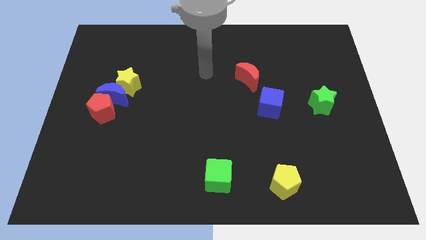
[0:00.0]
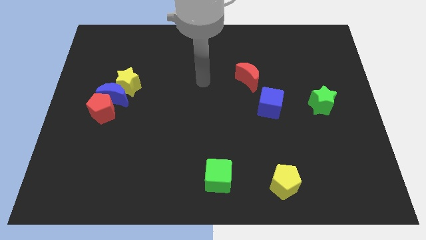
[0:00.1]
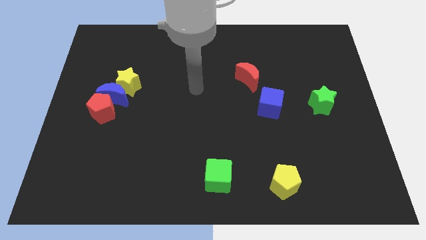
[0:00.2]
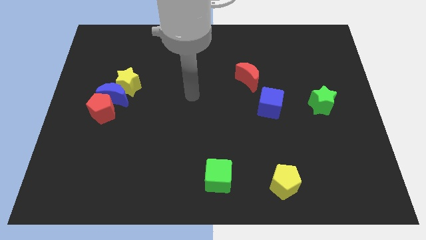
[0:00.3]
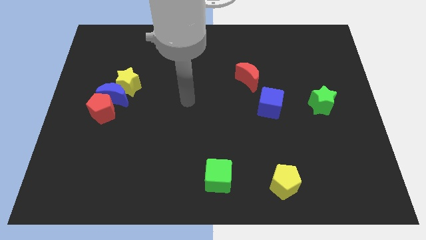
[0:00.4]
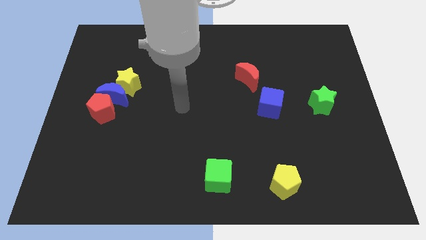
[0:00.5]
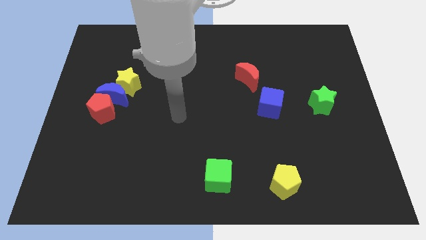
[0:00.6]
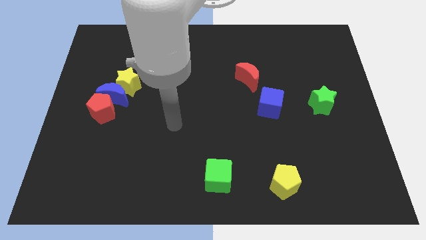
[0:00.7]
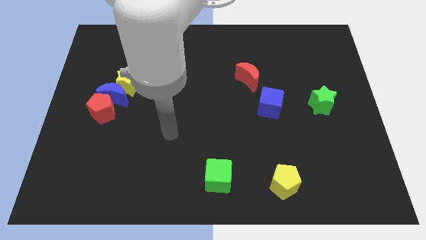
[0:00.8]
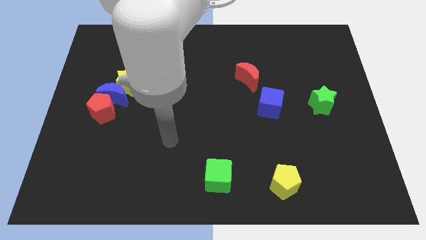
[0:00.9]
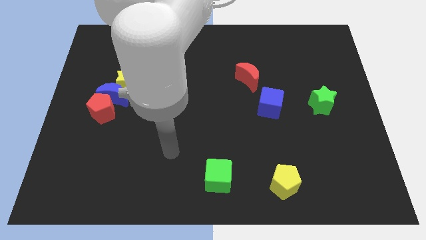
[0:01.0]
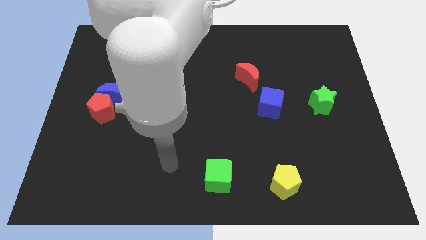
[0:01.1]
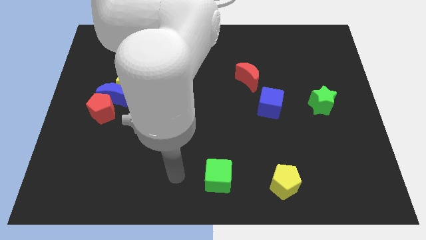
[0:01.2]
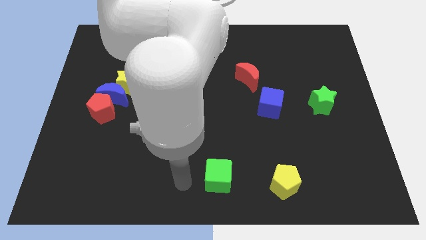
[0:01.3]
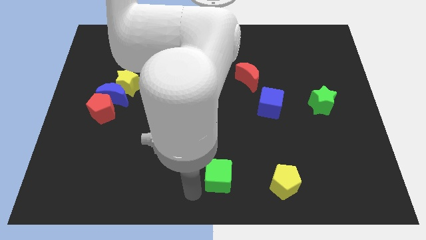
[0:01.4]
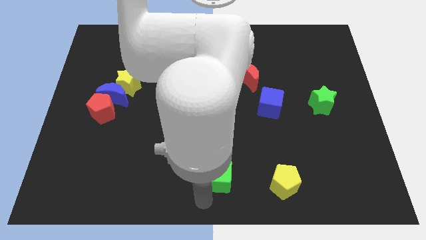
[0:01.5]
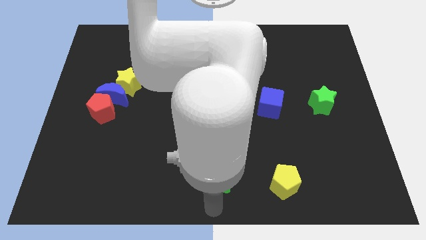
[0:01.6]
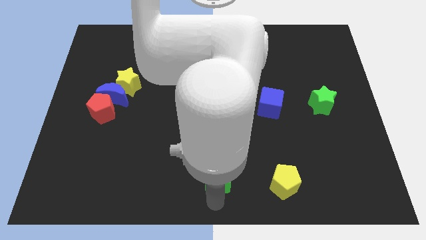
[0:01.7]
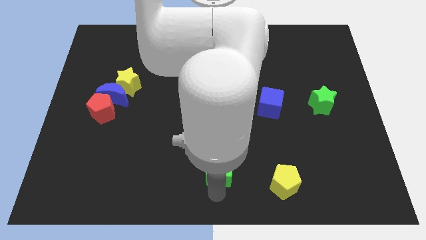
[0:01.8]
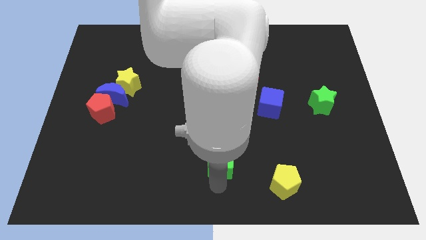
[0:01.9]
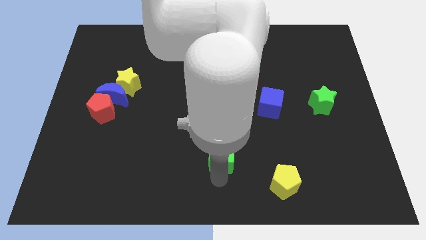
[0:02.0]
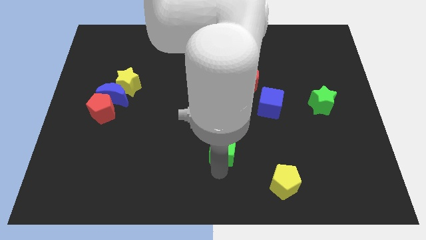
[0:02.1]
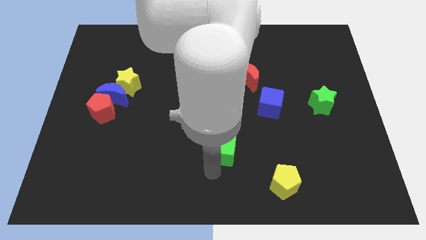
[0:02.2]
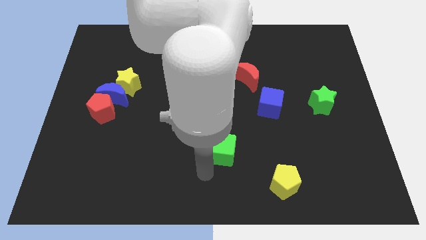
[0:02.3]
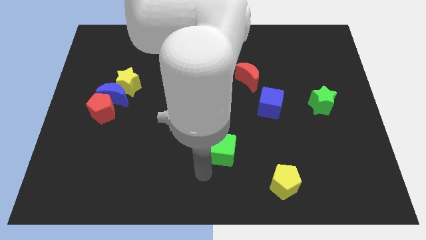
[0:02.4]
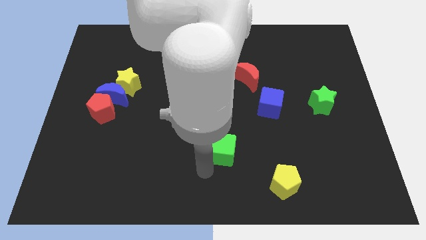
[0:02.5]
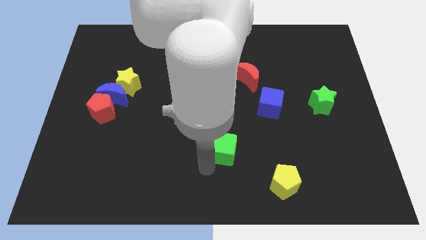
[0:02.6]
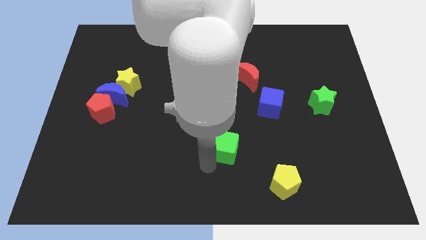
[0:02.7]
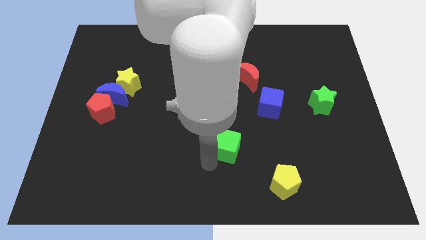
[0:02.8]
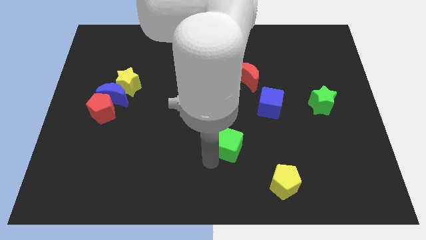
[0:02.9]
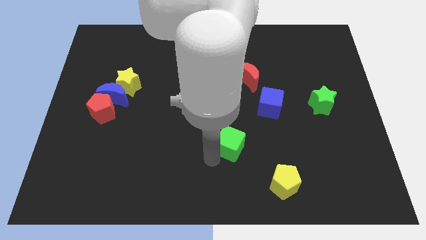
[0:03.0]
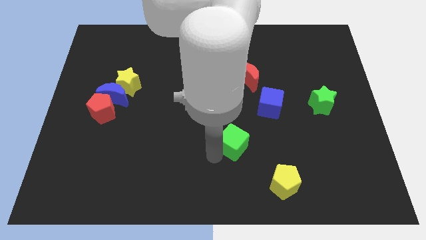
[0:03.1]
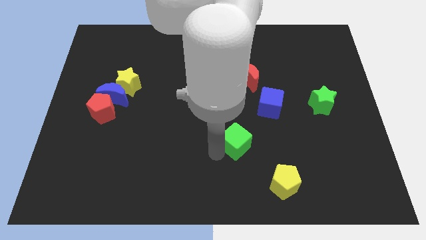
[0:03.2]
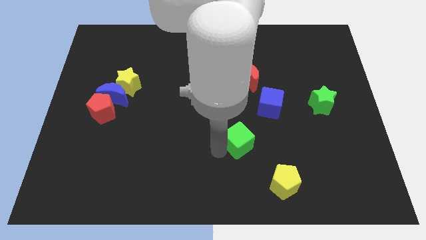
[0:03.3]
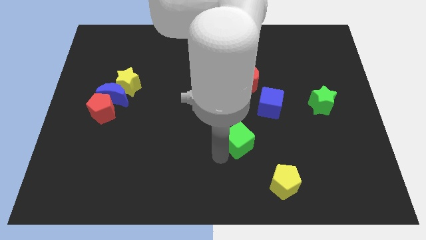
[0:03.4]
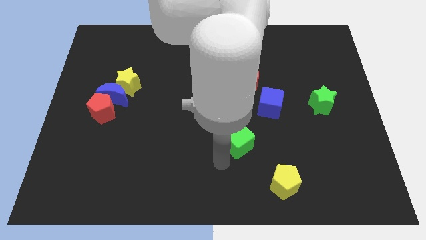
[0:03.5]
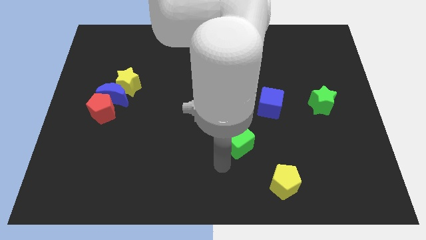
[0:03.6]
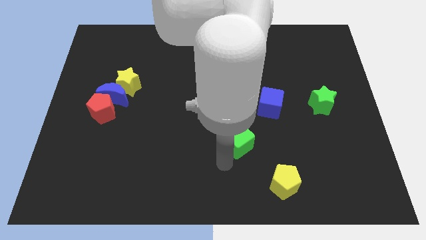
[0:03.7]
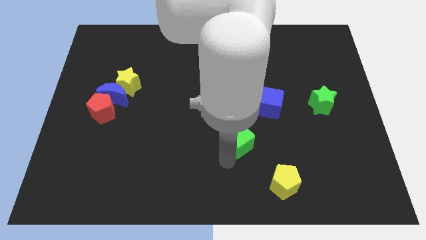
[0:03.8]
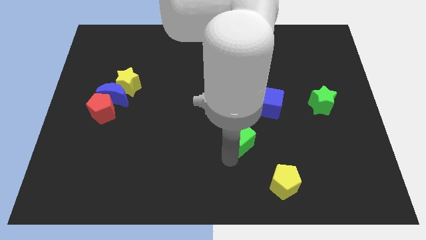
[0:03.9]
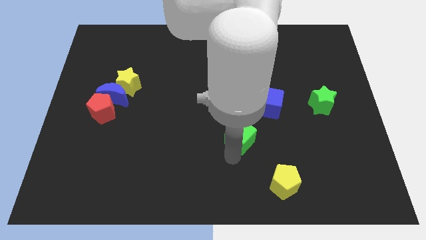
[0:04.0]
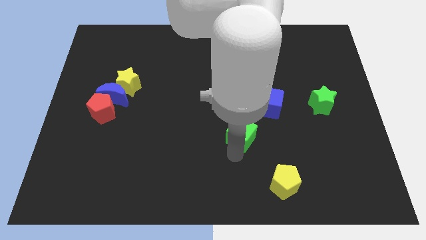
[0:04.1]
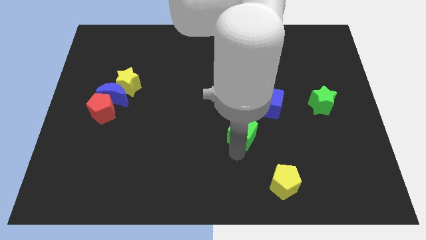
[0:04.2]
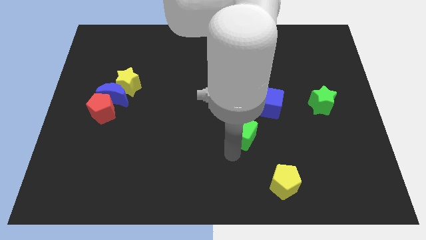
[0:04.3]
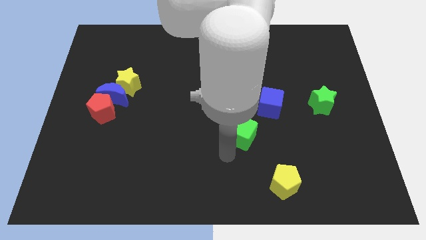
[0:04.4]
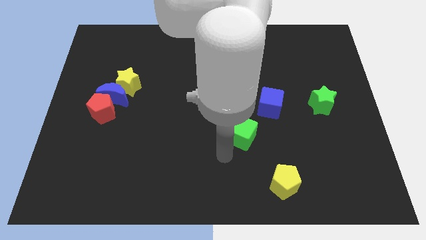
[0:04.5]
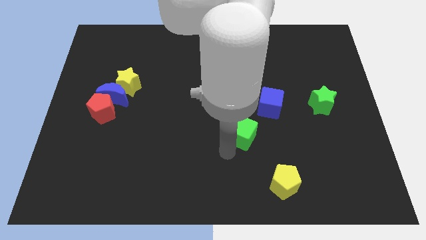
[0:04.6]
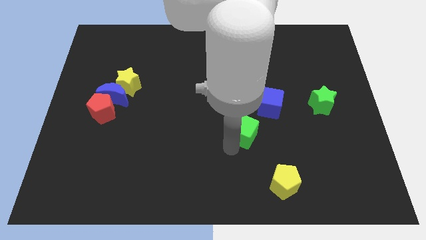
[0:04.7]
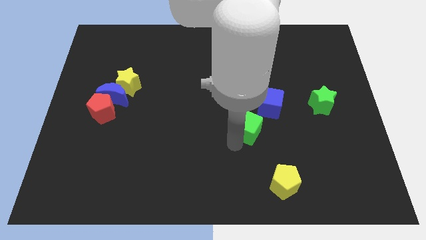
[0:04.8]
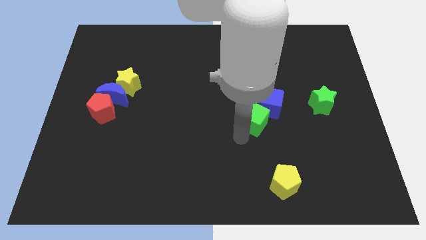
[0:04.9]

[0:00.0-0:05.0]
put the green cube to the blue cube

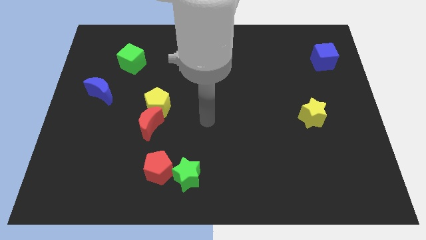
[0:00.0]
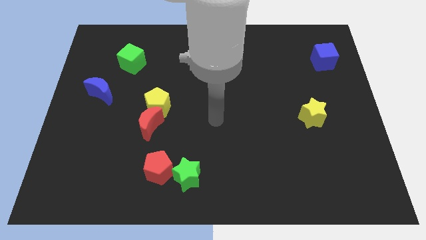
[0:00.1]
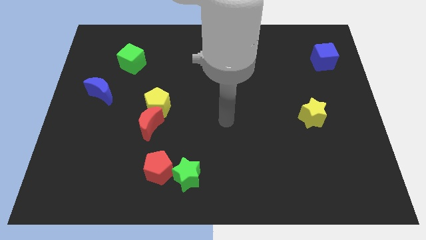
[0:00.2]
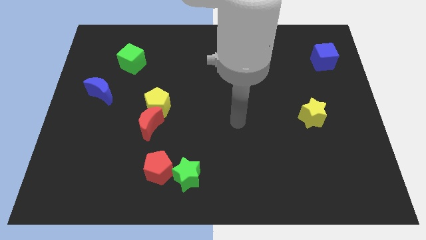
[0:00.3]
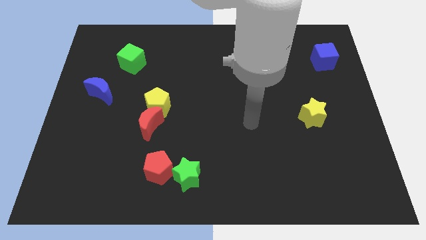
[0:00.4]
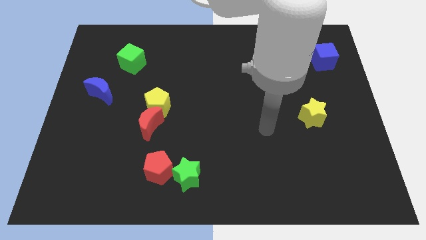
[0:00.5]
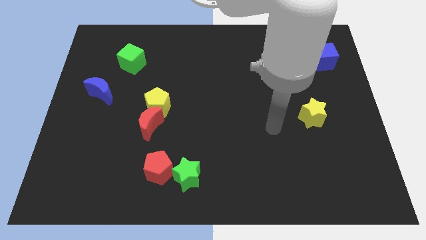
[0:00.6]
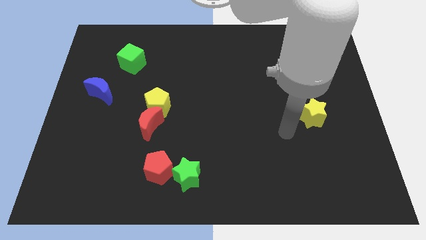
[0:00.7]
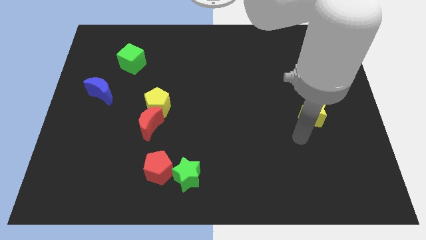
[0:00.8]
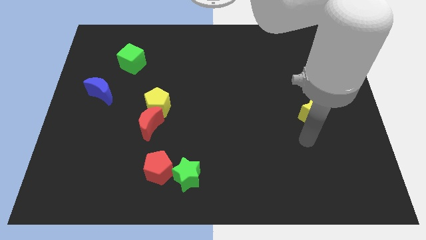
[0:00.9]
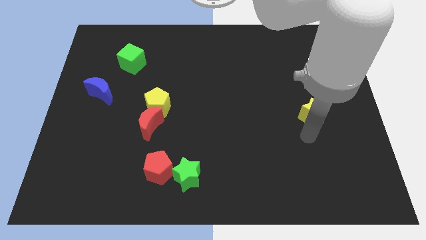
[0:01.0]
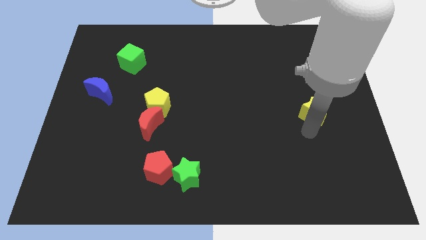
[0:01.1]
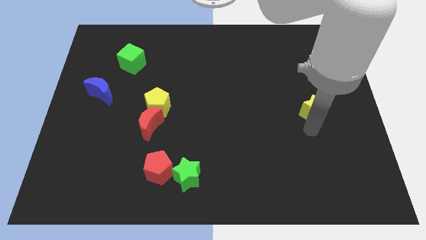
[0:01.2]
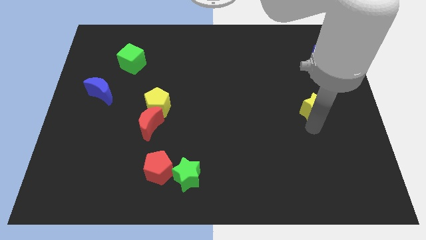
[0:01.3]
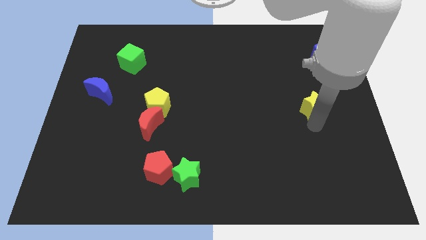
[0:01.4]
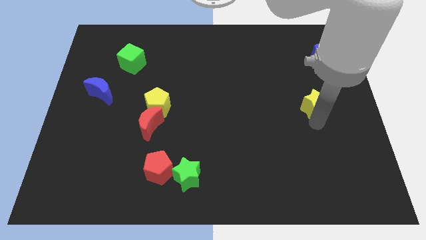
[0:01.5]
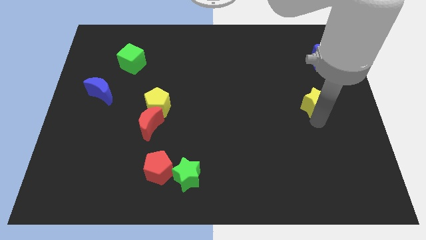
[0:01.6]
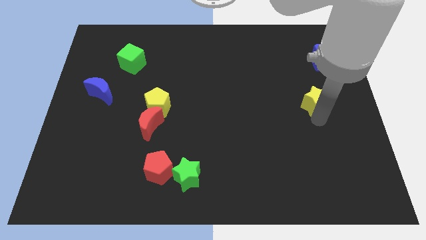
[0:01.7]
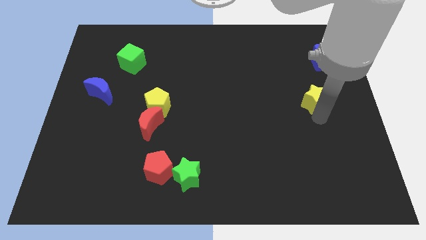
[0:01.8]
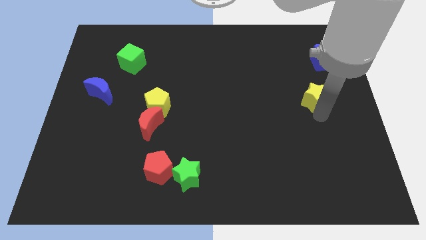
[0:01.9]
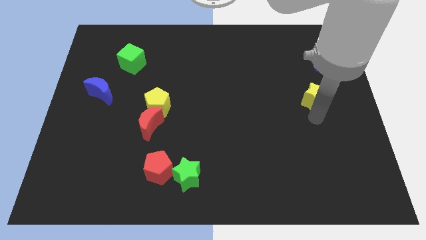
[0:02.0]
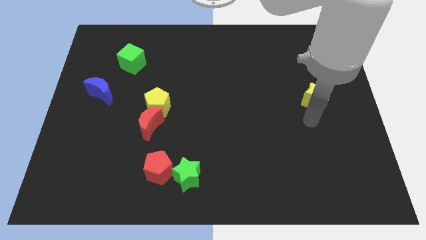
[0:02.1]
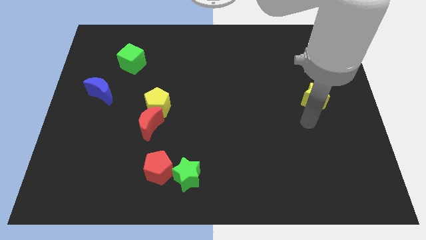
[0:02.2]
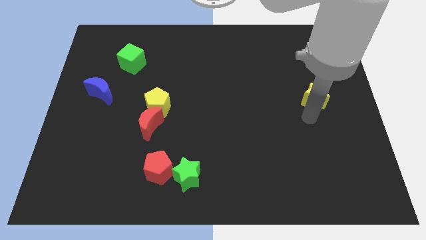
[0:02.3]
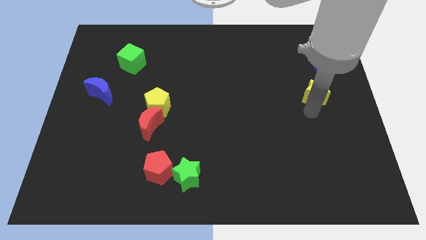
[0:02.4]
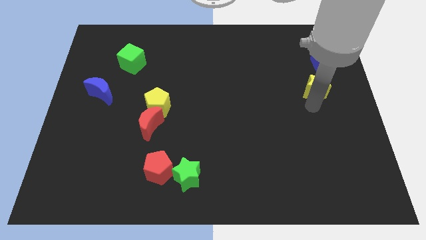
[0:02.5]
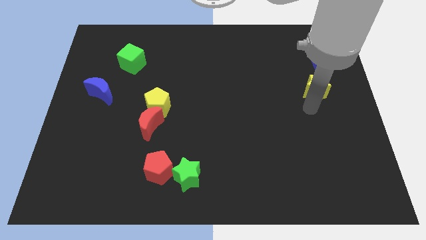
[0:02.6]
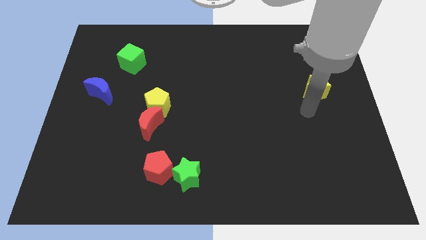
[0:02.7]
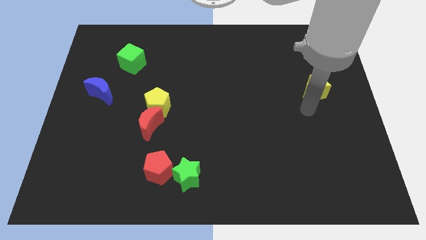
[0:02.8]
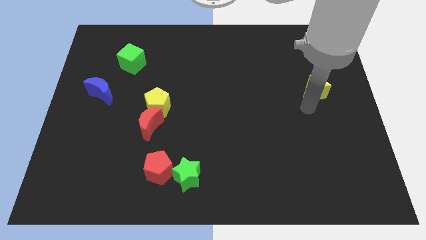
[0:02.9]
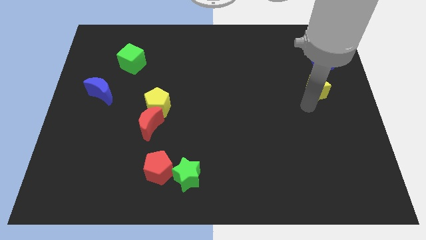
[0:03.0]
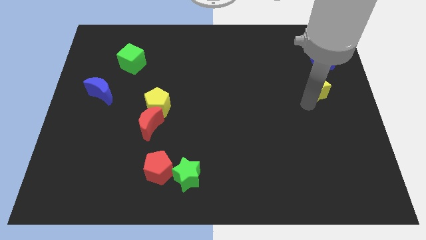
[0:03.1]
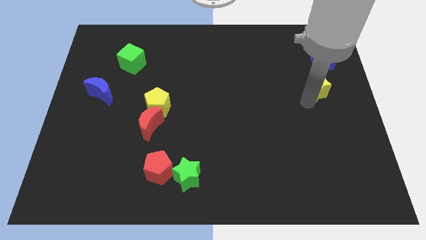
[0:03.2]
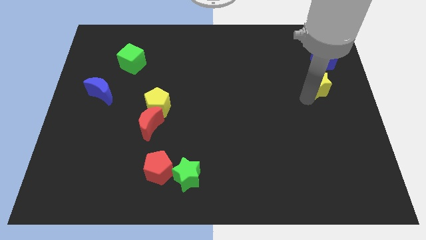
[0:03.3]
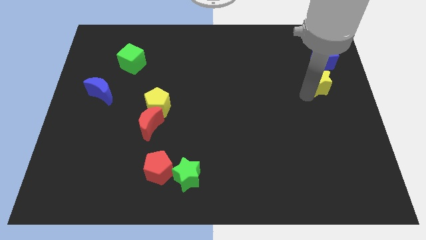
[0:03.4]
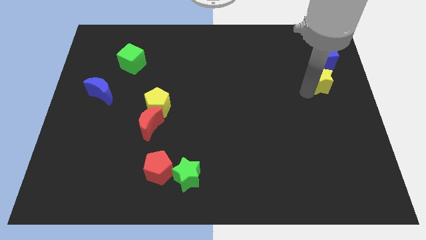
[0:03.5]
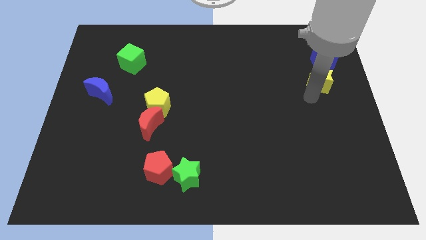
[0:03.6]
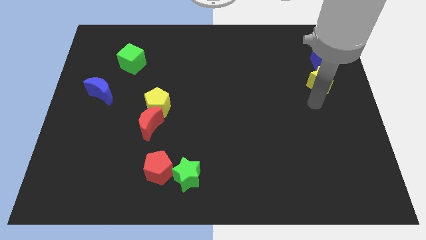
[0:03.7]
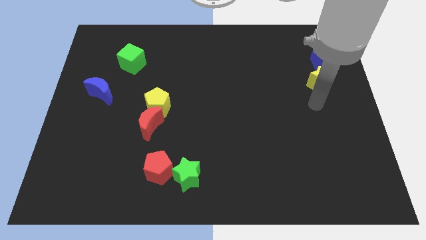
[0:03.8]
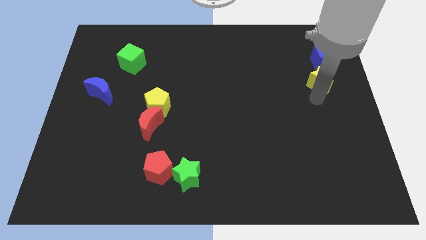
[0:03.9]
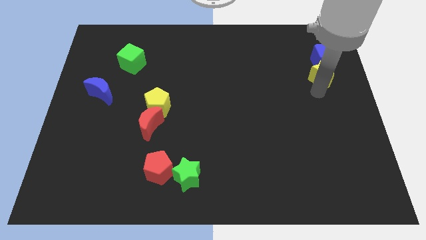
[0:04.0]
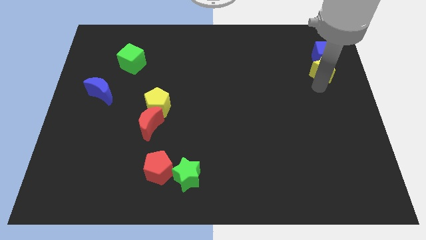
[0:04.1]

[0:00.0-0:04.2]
slide the yellow star close to the blue cube
